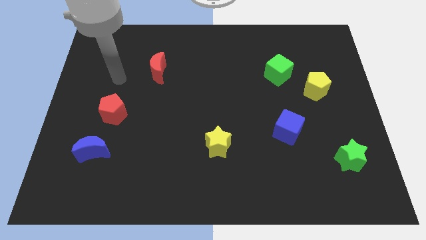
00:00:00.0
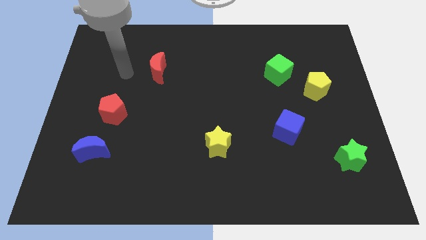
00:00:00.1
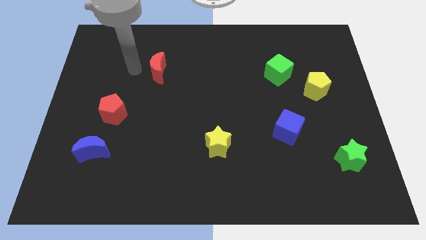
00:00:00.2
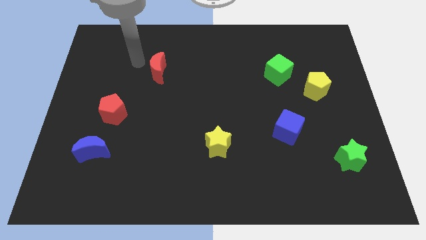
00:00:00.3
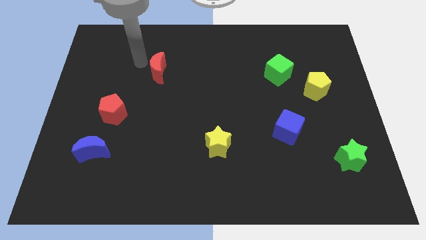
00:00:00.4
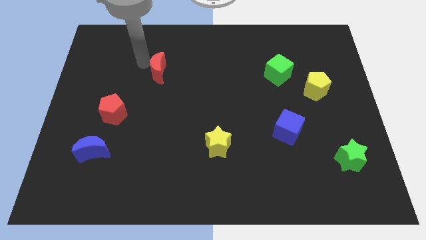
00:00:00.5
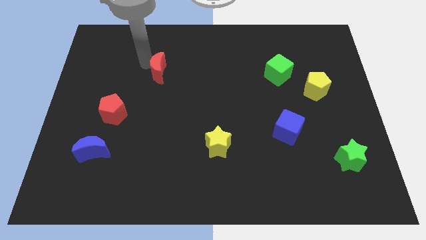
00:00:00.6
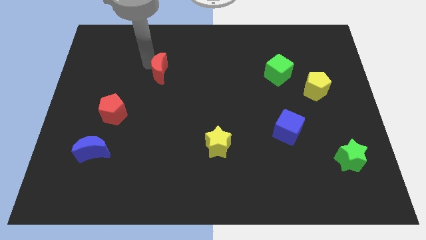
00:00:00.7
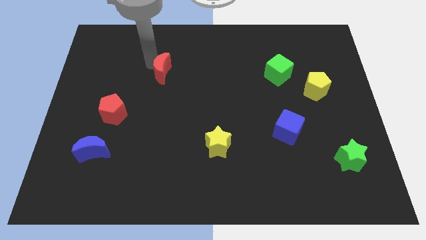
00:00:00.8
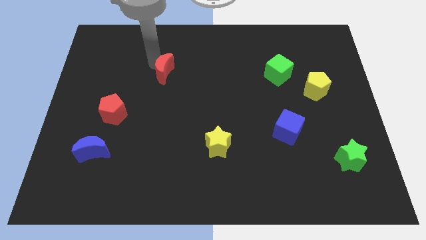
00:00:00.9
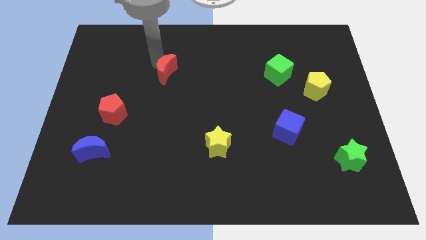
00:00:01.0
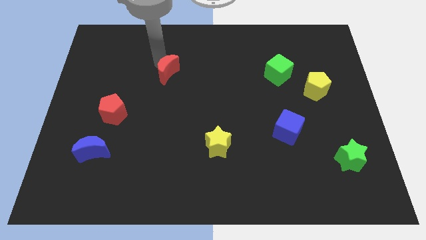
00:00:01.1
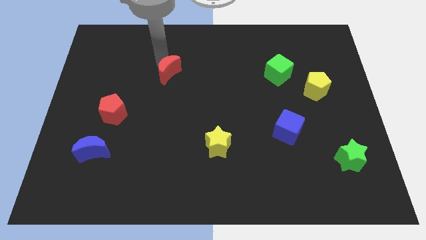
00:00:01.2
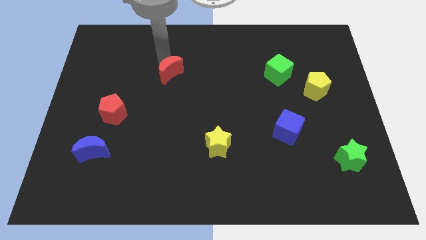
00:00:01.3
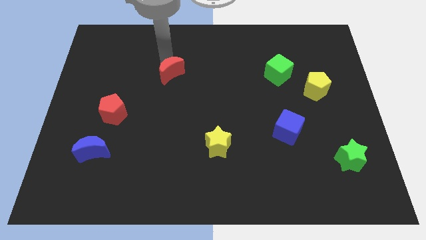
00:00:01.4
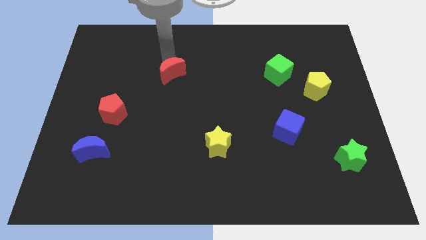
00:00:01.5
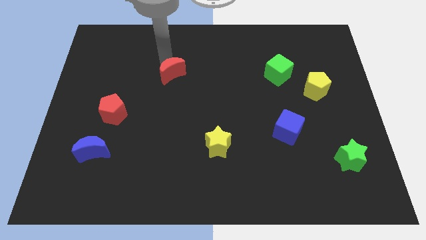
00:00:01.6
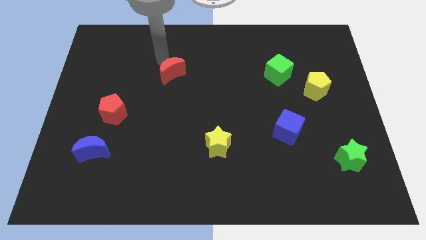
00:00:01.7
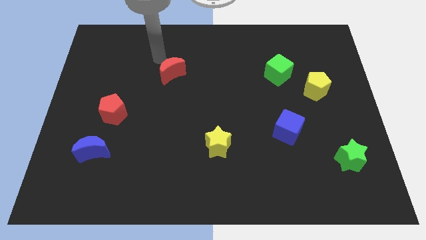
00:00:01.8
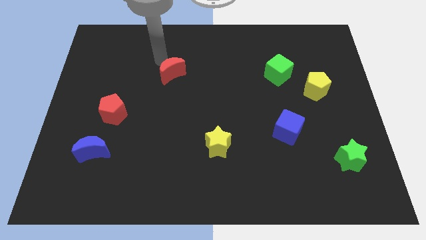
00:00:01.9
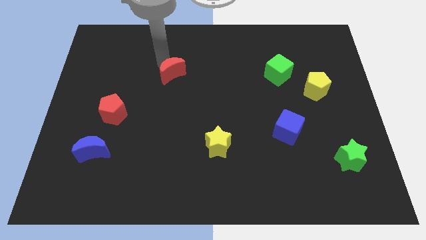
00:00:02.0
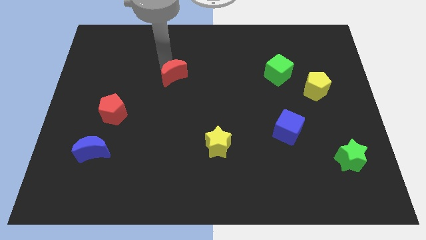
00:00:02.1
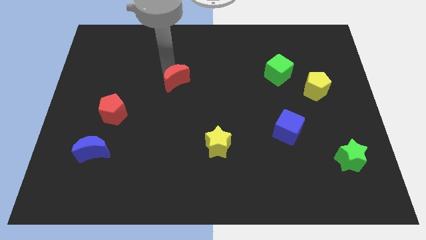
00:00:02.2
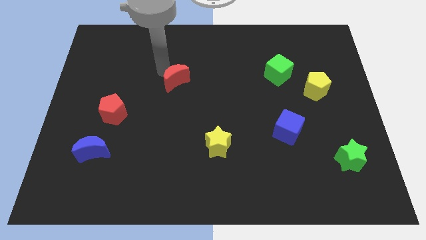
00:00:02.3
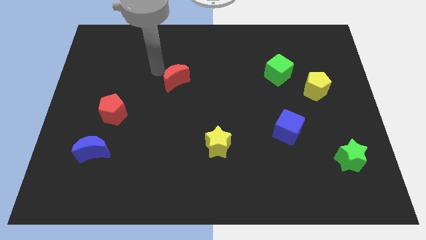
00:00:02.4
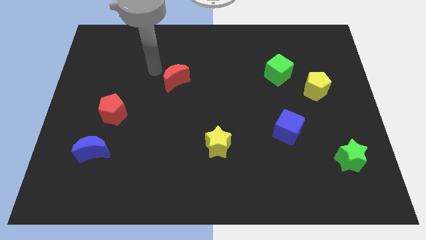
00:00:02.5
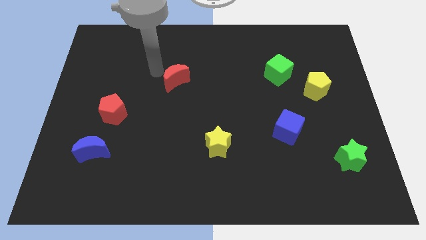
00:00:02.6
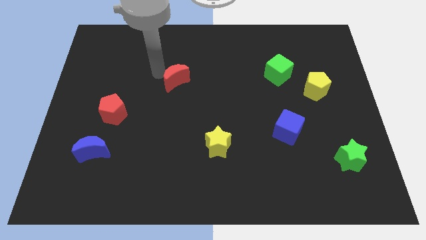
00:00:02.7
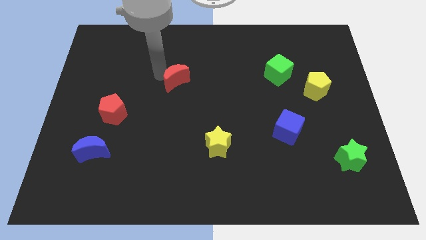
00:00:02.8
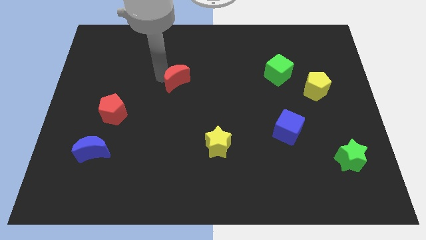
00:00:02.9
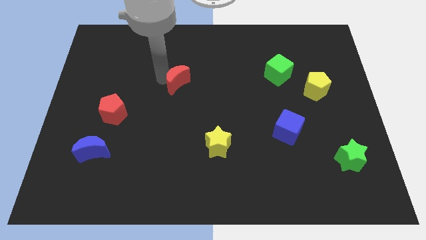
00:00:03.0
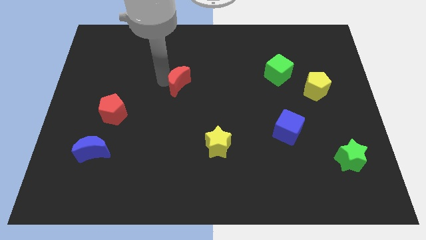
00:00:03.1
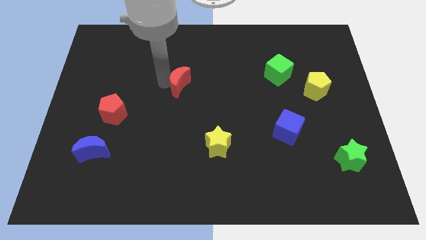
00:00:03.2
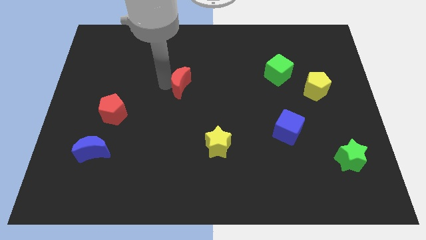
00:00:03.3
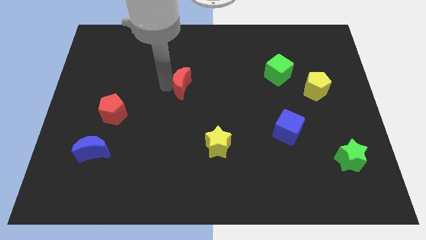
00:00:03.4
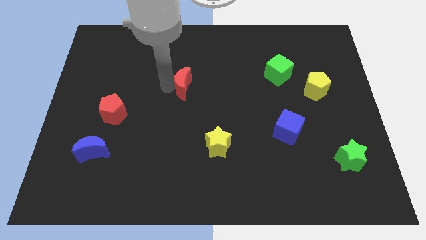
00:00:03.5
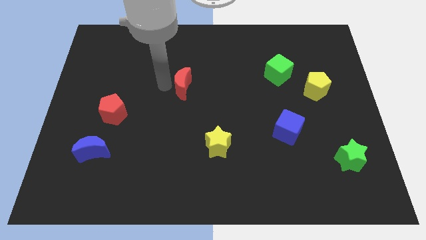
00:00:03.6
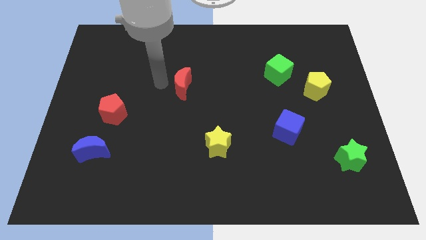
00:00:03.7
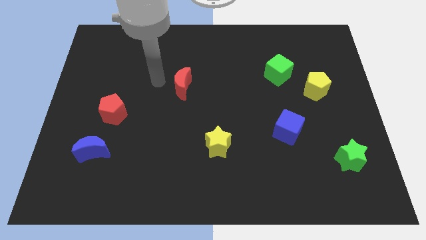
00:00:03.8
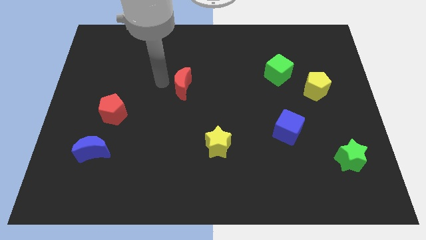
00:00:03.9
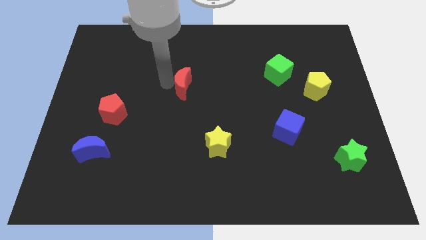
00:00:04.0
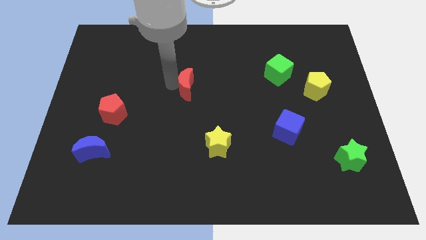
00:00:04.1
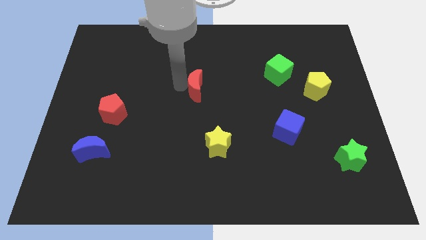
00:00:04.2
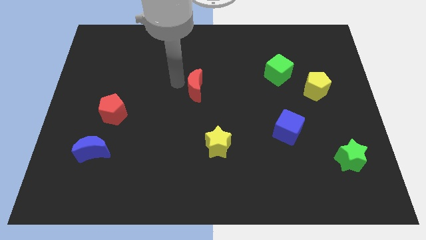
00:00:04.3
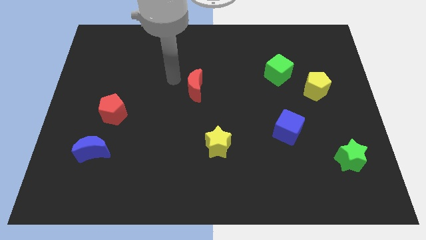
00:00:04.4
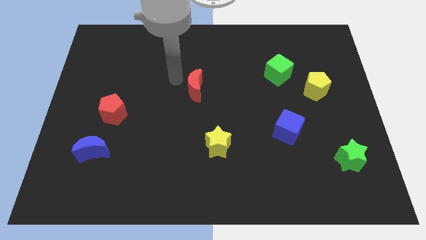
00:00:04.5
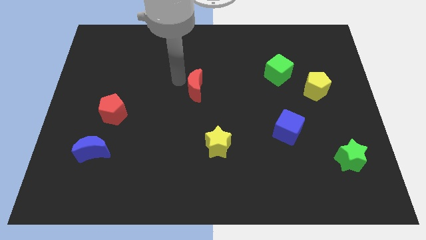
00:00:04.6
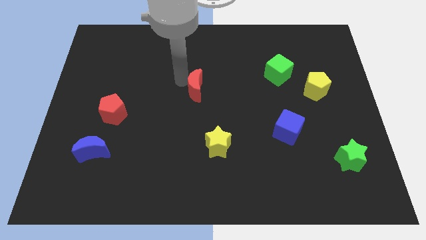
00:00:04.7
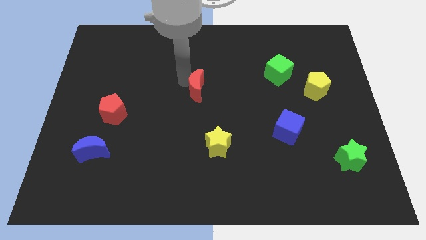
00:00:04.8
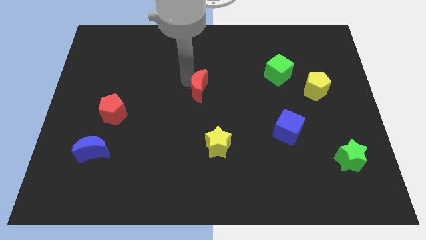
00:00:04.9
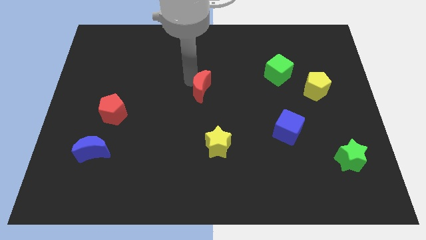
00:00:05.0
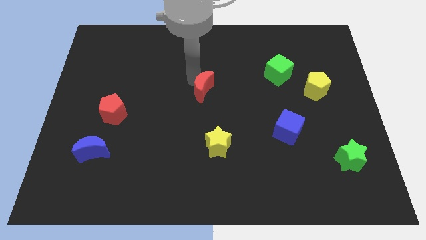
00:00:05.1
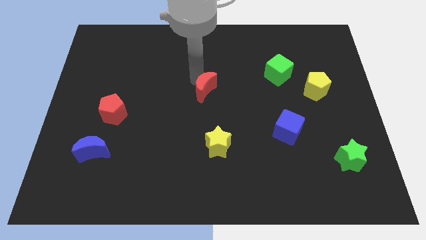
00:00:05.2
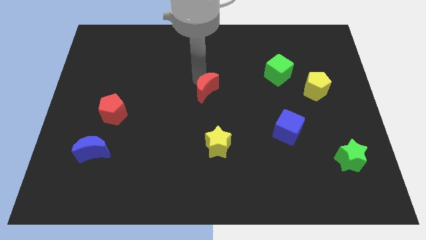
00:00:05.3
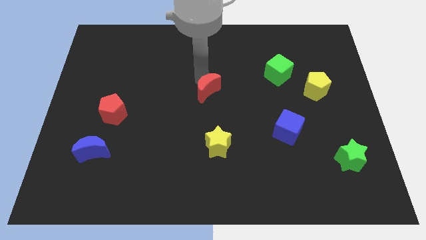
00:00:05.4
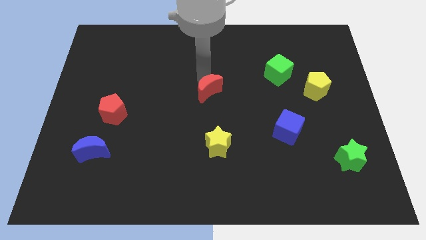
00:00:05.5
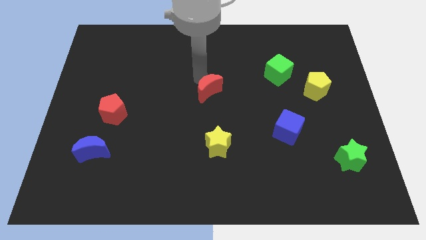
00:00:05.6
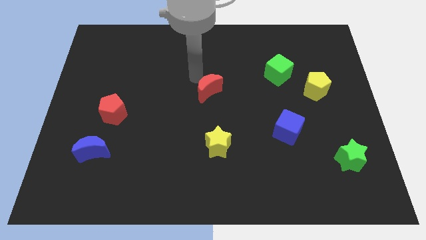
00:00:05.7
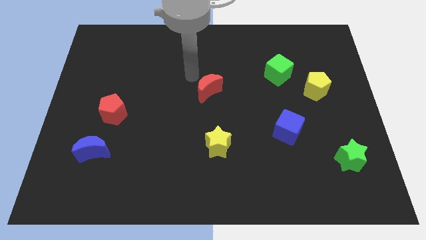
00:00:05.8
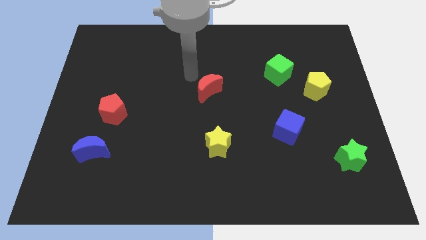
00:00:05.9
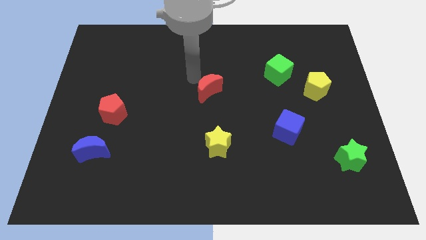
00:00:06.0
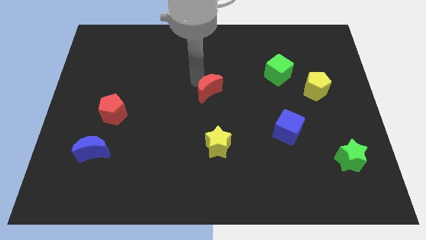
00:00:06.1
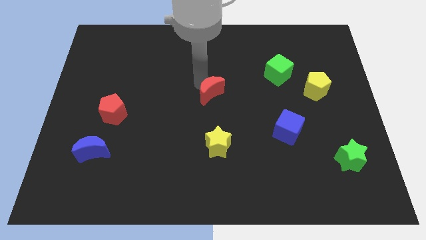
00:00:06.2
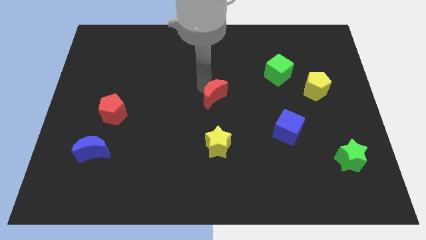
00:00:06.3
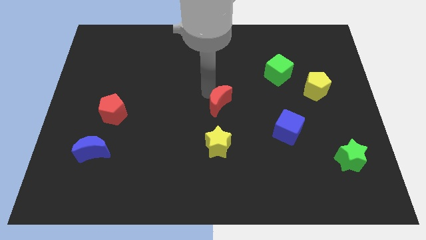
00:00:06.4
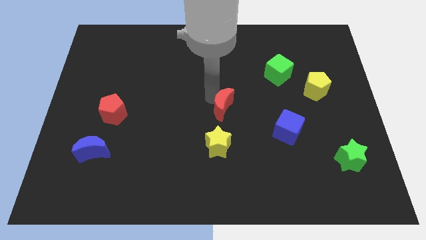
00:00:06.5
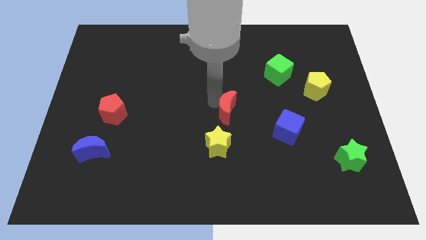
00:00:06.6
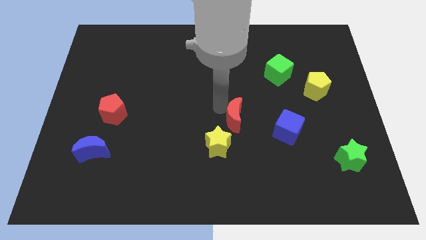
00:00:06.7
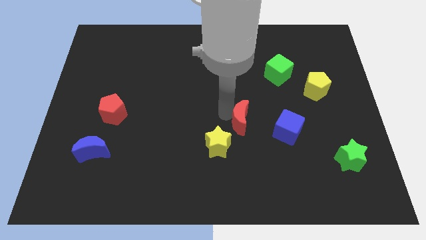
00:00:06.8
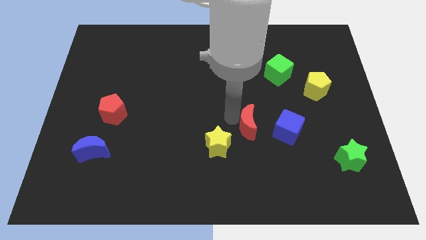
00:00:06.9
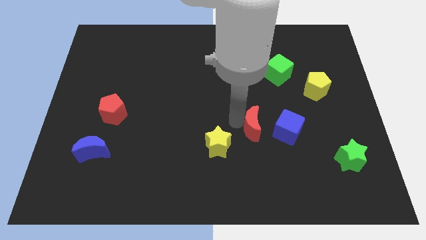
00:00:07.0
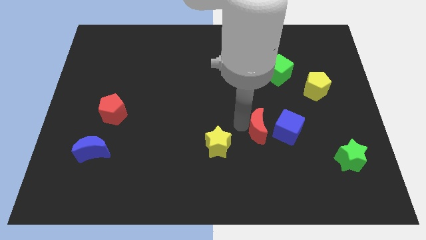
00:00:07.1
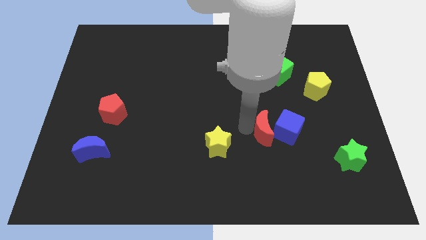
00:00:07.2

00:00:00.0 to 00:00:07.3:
slide the red moon towards the blue cube

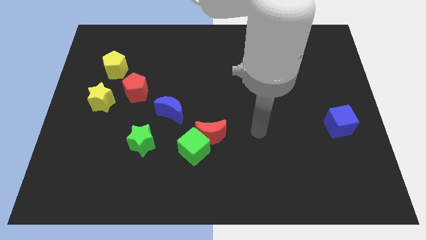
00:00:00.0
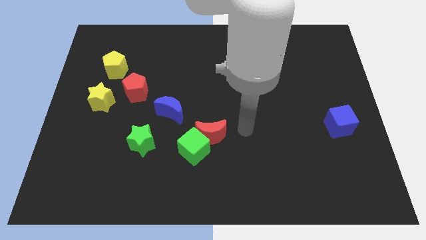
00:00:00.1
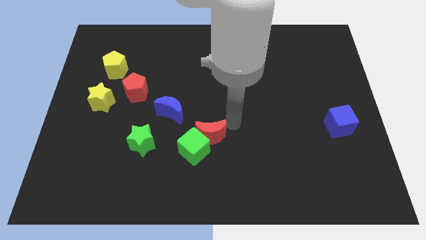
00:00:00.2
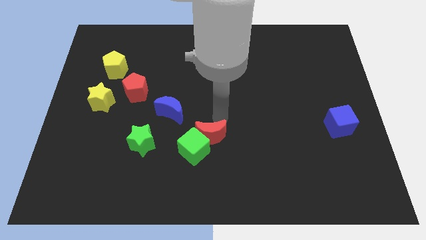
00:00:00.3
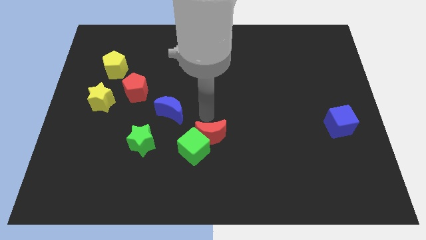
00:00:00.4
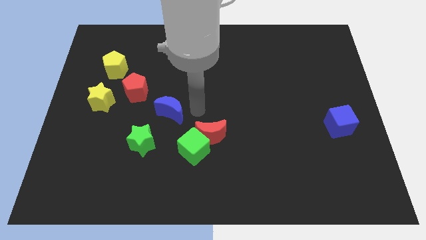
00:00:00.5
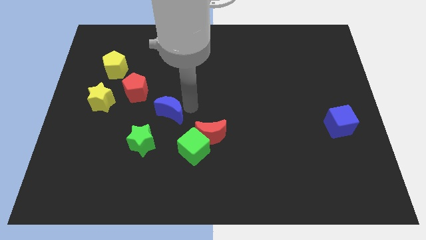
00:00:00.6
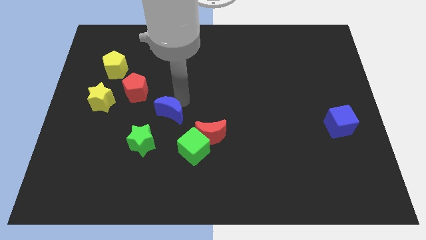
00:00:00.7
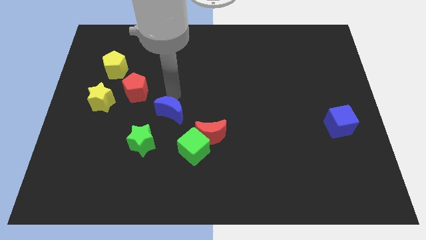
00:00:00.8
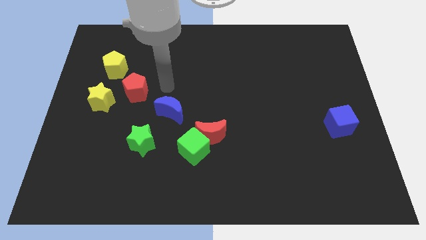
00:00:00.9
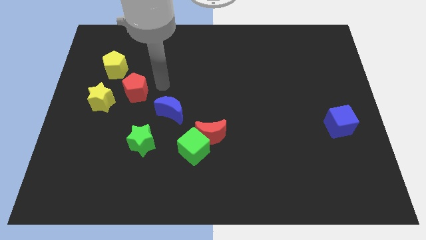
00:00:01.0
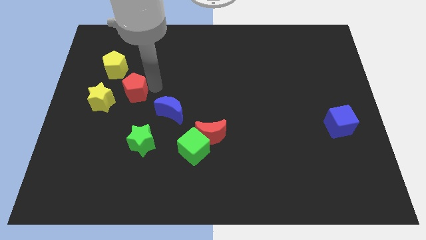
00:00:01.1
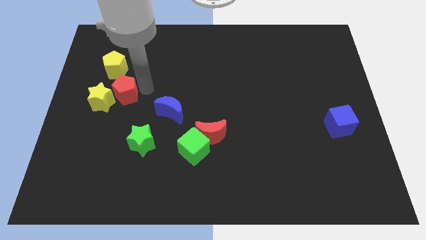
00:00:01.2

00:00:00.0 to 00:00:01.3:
push the red pentagon towards the yellow star
